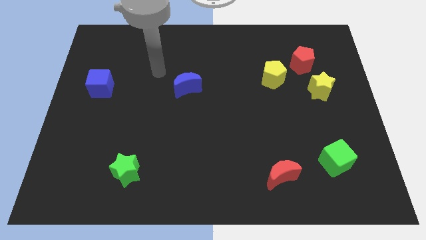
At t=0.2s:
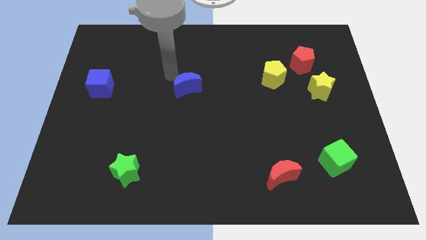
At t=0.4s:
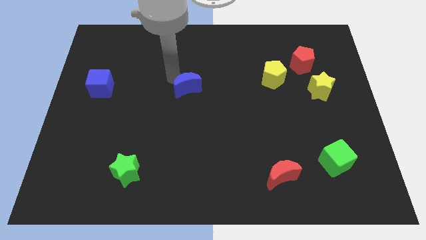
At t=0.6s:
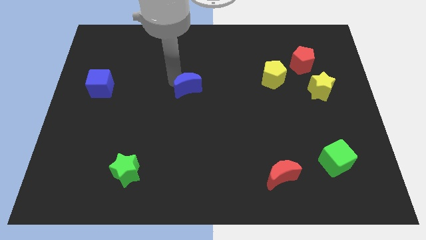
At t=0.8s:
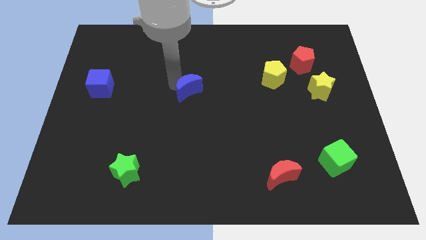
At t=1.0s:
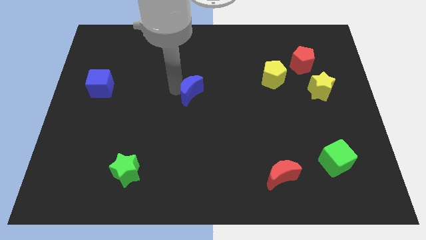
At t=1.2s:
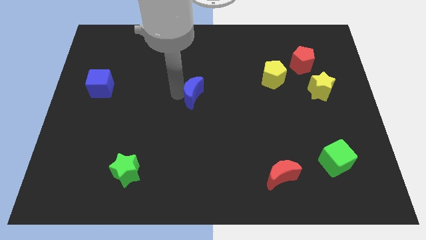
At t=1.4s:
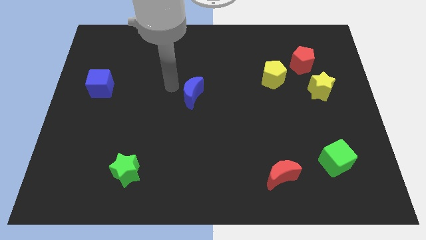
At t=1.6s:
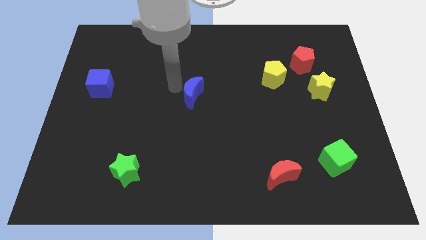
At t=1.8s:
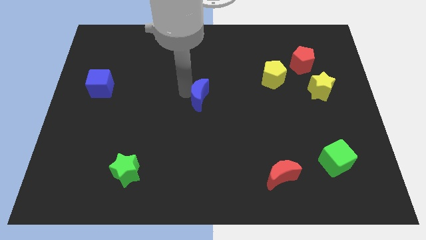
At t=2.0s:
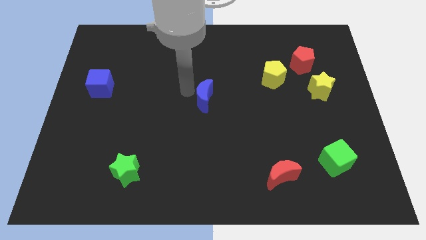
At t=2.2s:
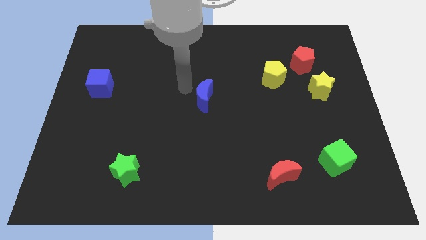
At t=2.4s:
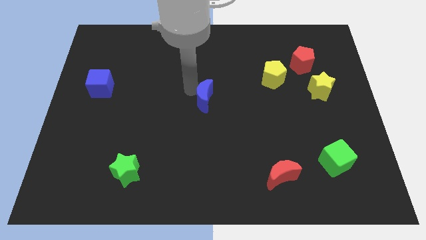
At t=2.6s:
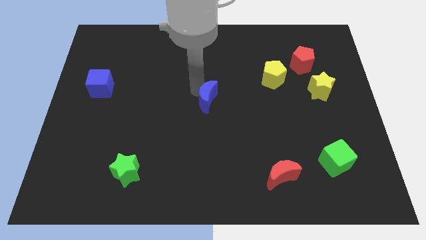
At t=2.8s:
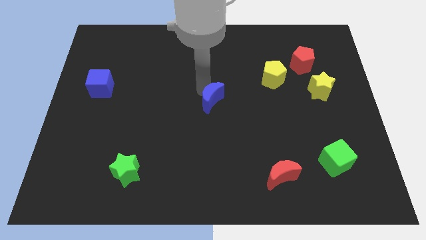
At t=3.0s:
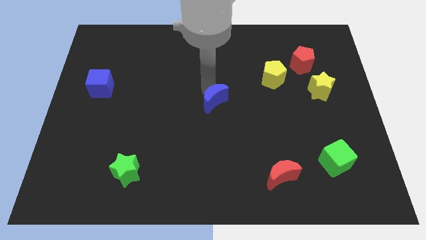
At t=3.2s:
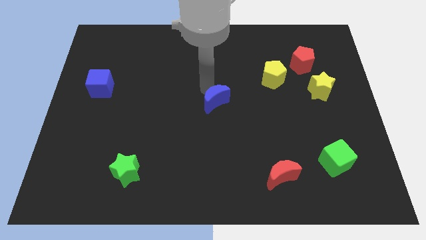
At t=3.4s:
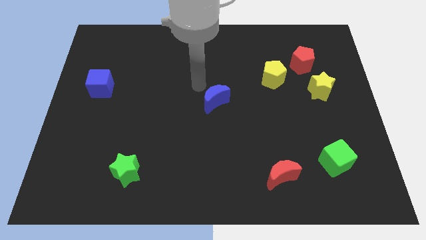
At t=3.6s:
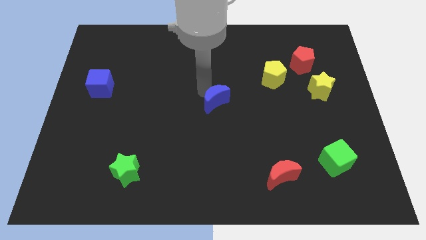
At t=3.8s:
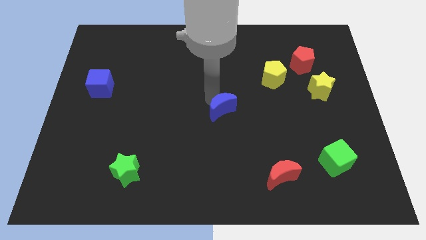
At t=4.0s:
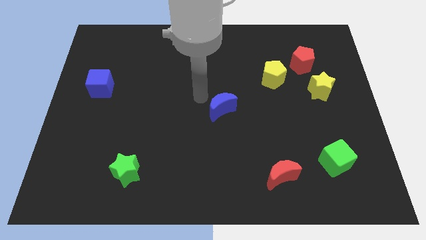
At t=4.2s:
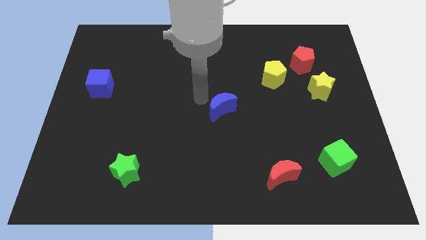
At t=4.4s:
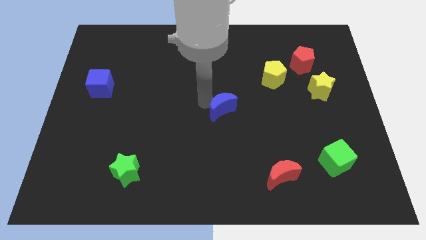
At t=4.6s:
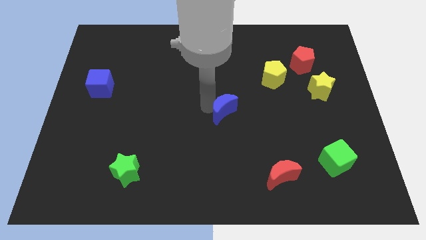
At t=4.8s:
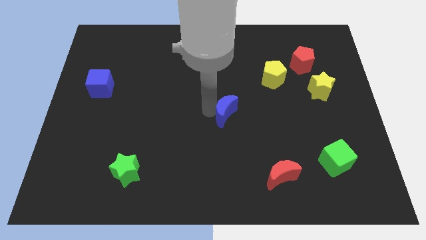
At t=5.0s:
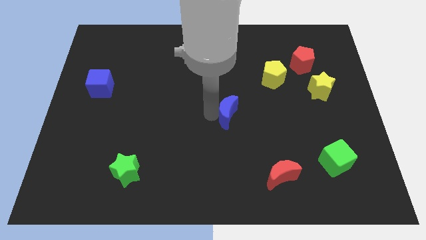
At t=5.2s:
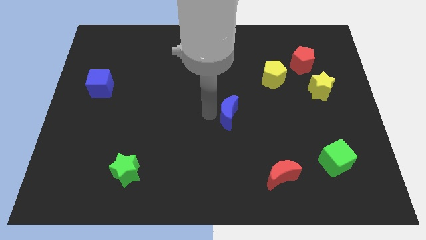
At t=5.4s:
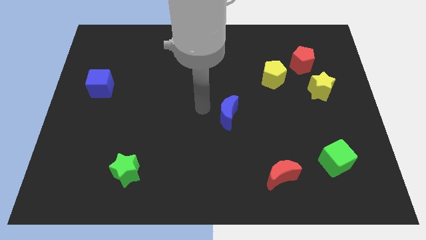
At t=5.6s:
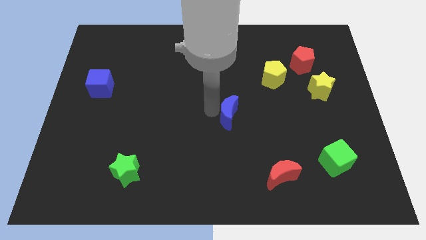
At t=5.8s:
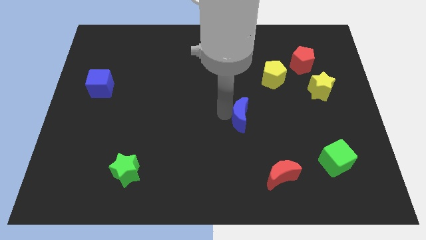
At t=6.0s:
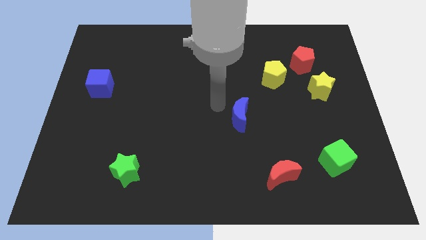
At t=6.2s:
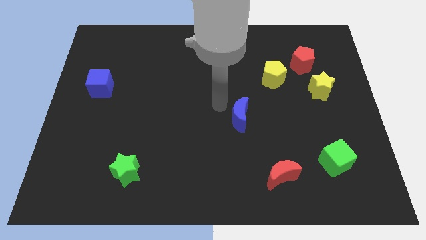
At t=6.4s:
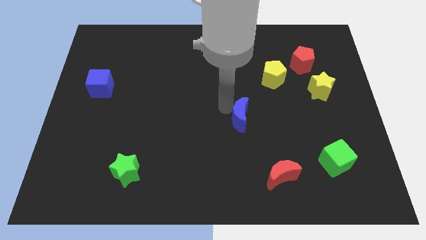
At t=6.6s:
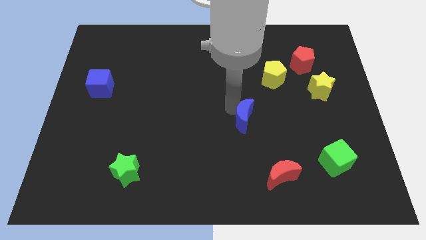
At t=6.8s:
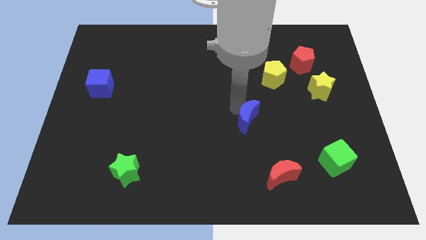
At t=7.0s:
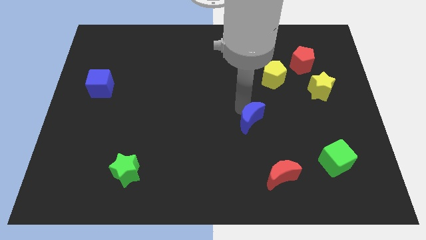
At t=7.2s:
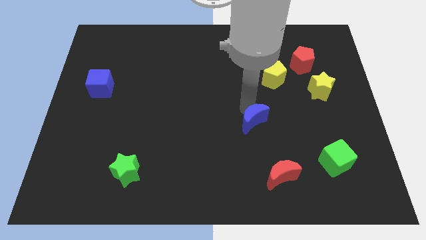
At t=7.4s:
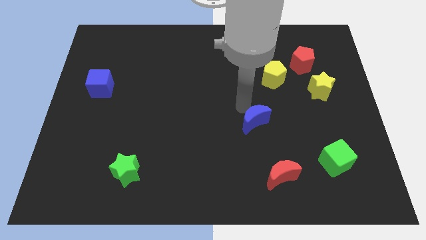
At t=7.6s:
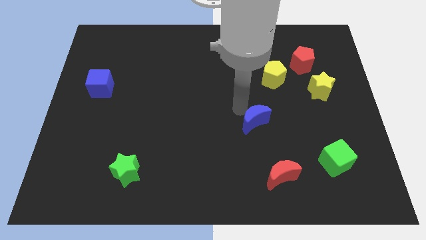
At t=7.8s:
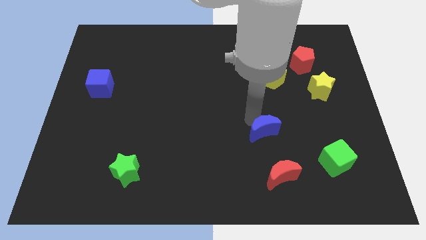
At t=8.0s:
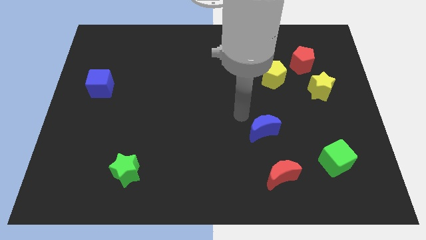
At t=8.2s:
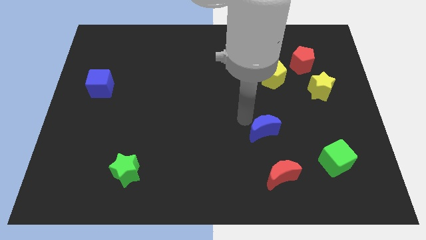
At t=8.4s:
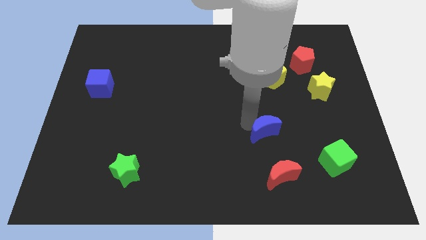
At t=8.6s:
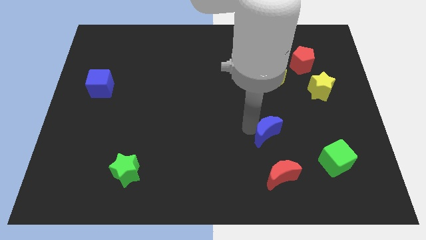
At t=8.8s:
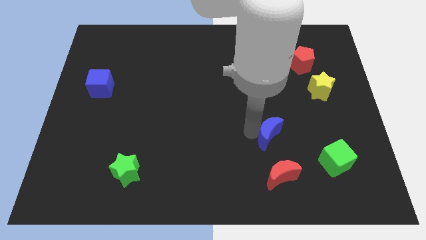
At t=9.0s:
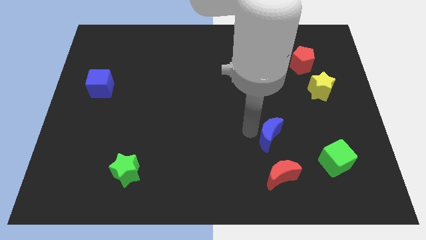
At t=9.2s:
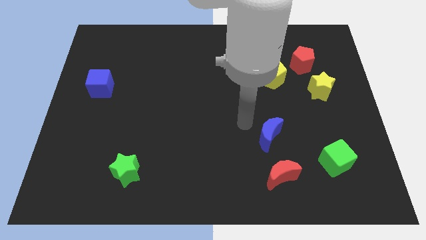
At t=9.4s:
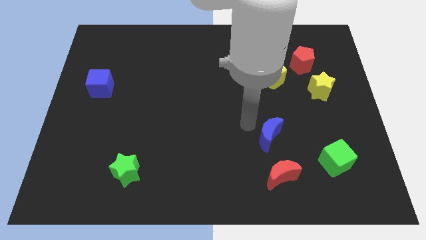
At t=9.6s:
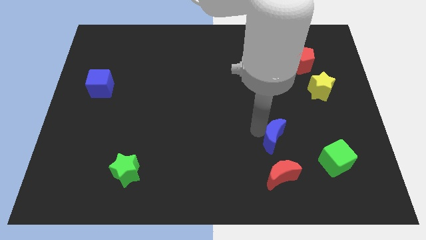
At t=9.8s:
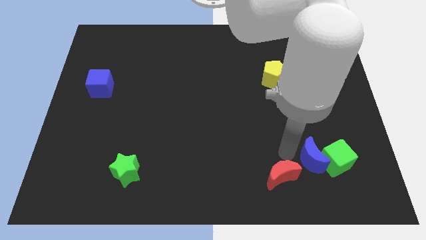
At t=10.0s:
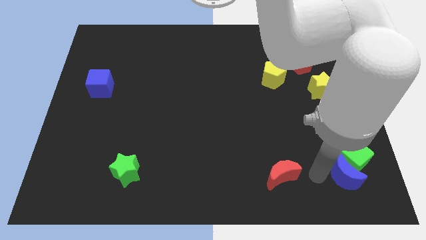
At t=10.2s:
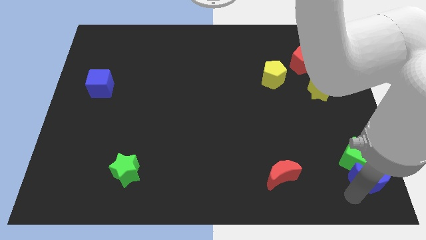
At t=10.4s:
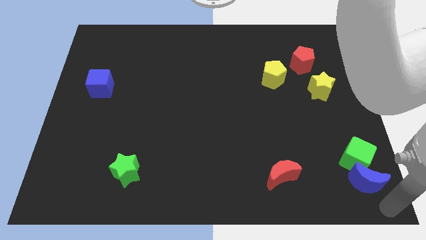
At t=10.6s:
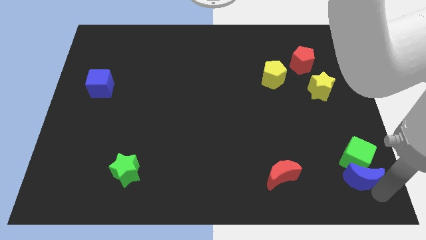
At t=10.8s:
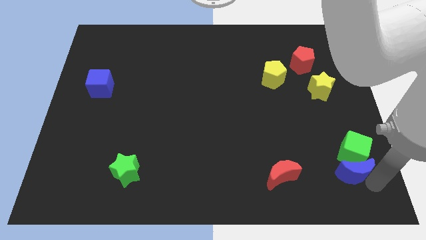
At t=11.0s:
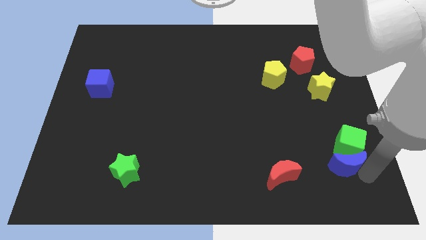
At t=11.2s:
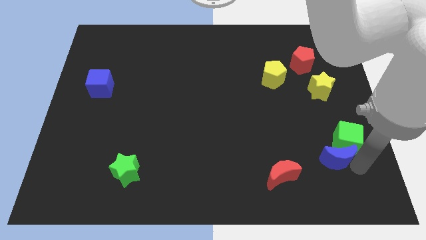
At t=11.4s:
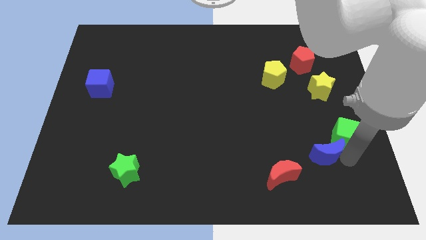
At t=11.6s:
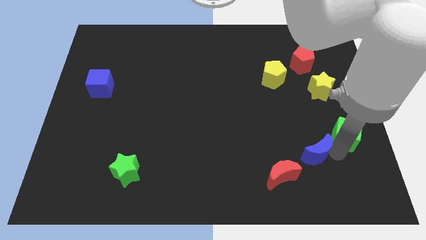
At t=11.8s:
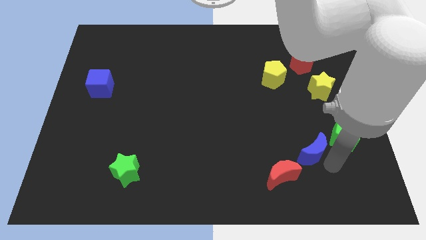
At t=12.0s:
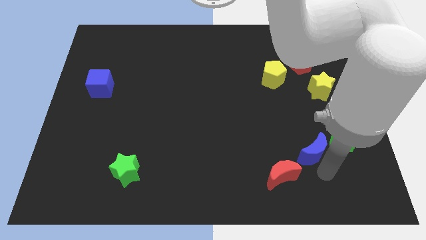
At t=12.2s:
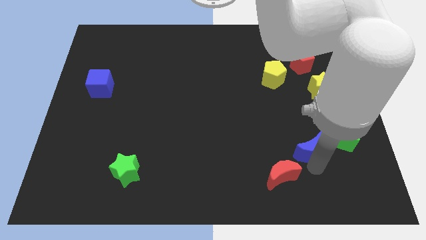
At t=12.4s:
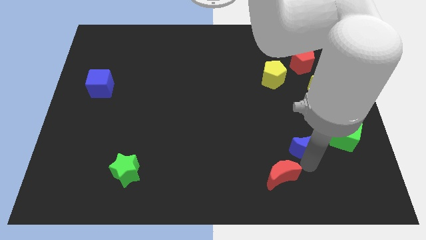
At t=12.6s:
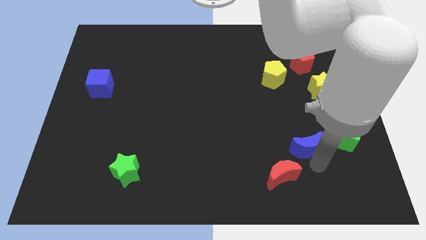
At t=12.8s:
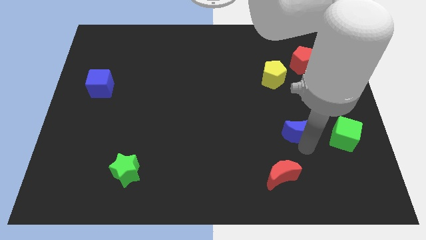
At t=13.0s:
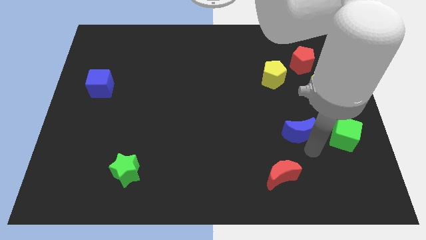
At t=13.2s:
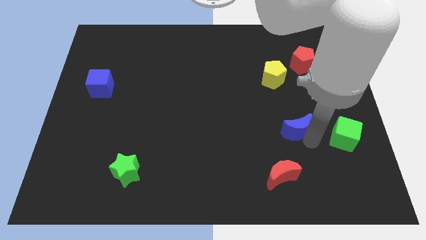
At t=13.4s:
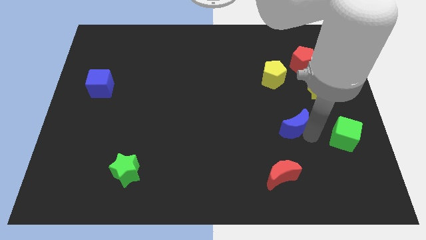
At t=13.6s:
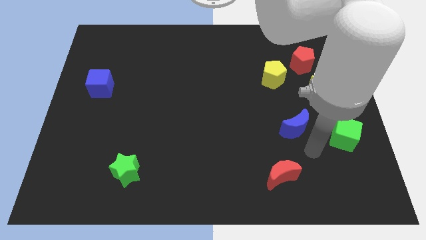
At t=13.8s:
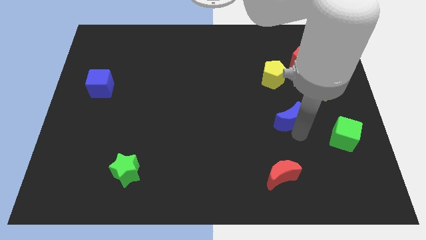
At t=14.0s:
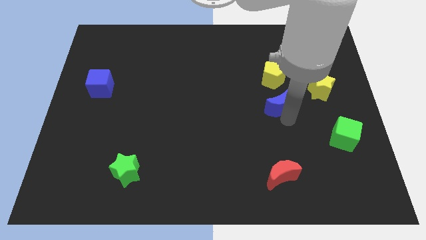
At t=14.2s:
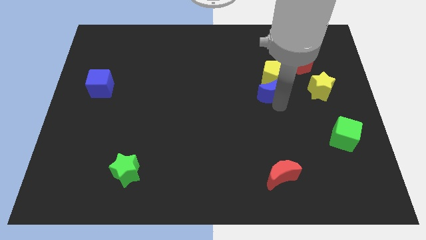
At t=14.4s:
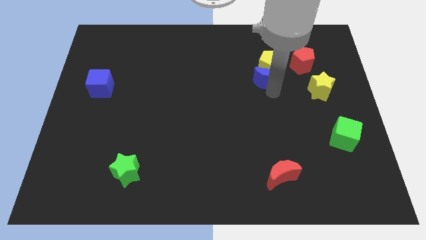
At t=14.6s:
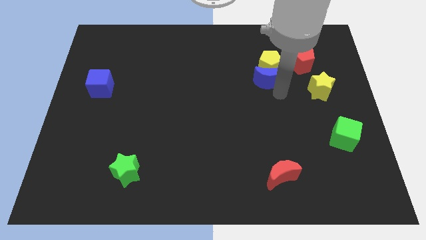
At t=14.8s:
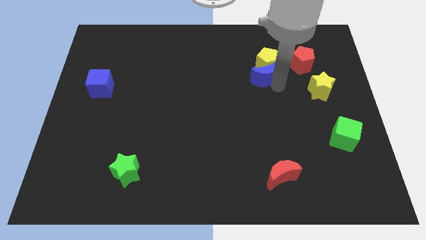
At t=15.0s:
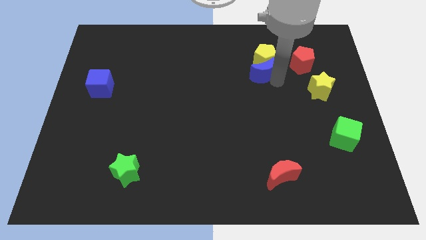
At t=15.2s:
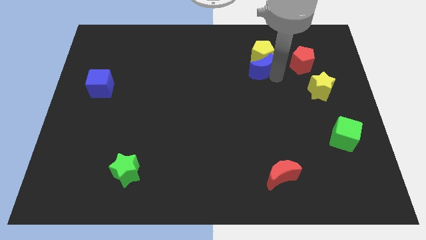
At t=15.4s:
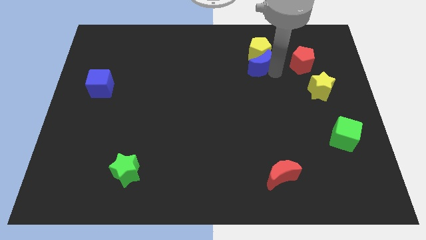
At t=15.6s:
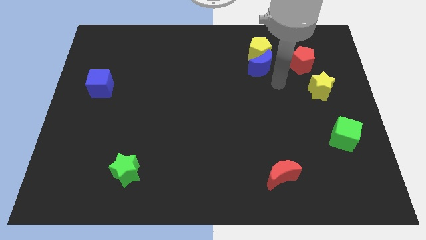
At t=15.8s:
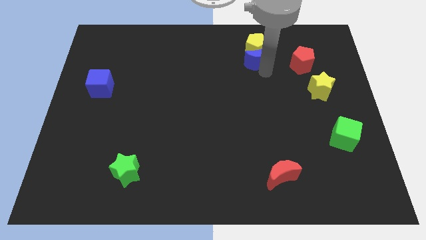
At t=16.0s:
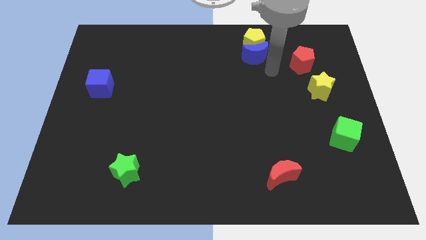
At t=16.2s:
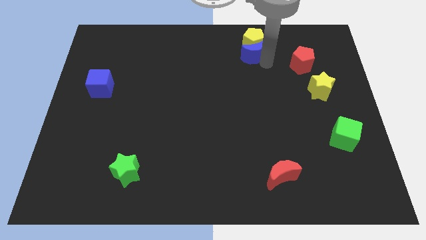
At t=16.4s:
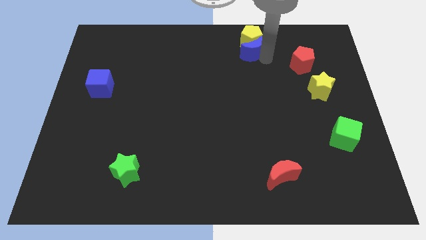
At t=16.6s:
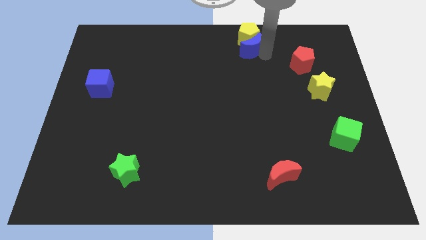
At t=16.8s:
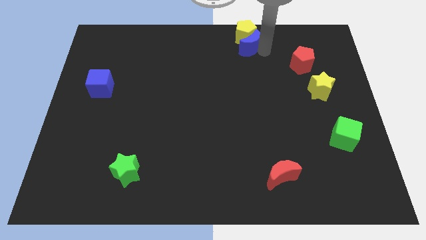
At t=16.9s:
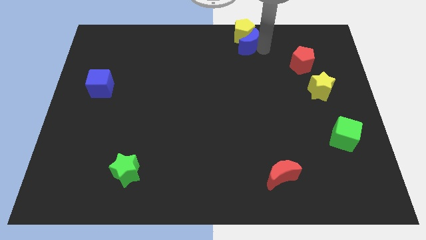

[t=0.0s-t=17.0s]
put the blue moon to the top
